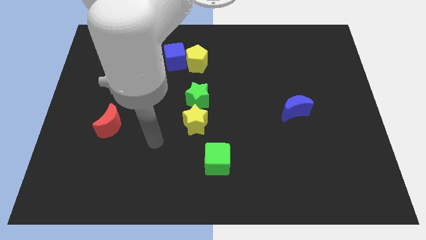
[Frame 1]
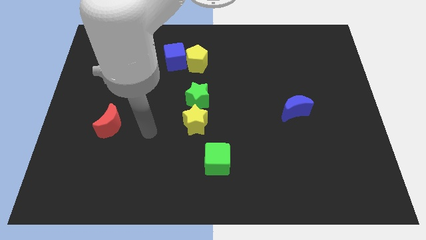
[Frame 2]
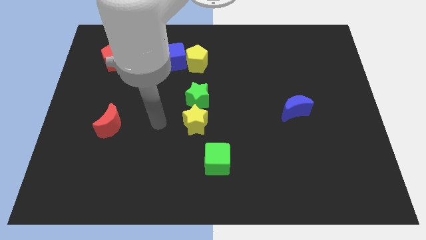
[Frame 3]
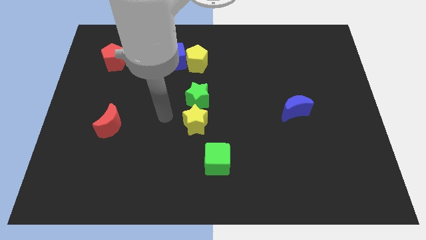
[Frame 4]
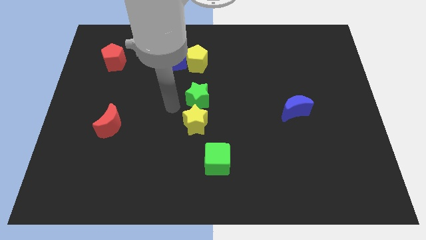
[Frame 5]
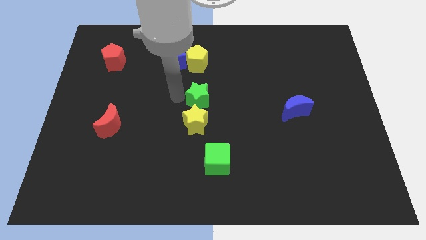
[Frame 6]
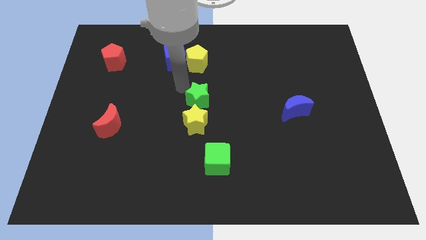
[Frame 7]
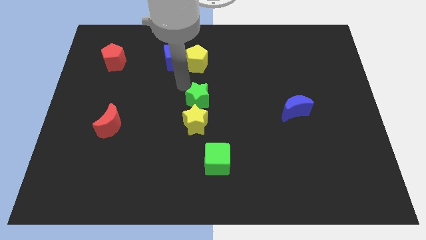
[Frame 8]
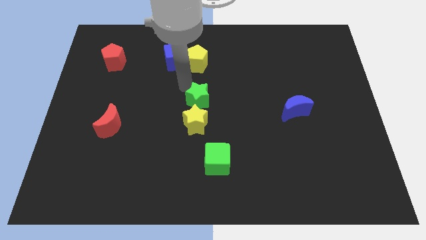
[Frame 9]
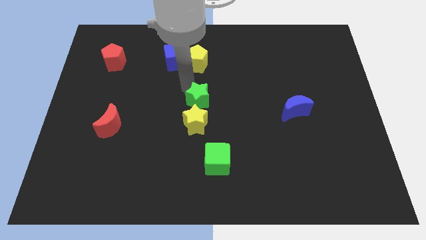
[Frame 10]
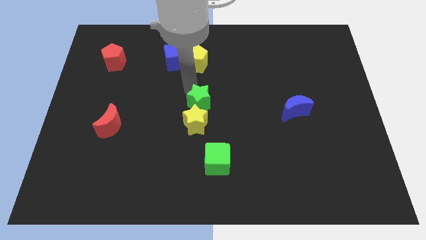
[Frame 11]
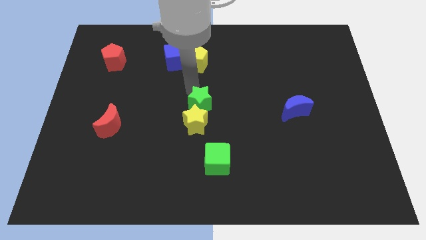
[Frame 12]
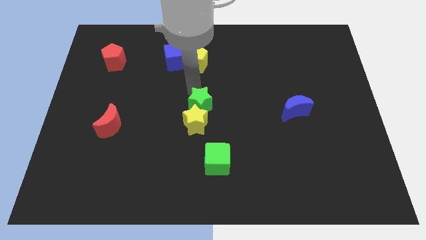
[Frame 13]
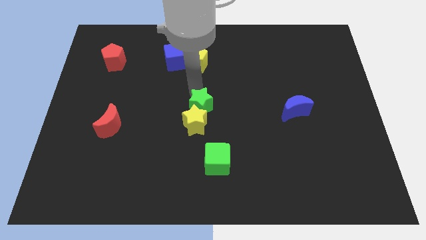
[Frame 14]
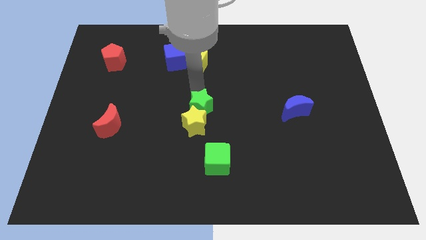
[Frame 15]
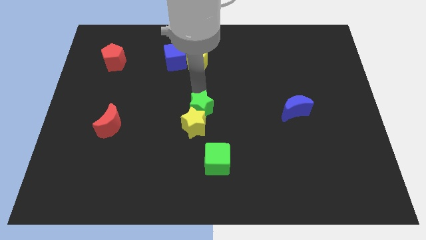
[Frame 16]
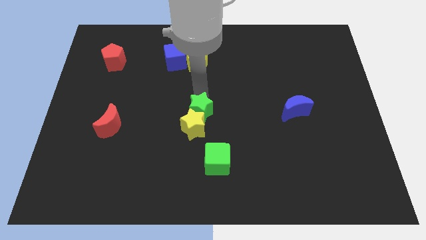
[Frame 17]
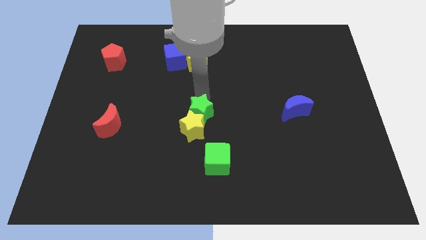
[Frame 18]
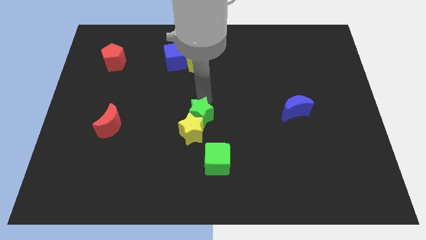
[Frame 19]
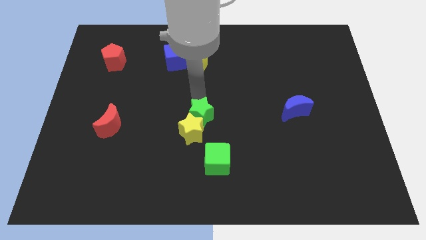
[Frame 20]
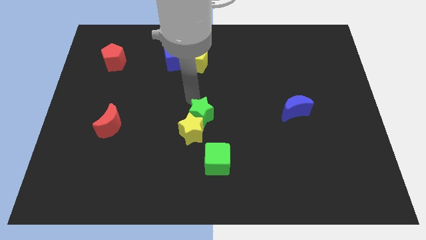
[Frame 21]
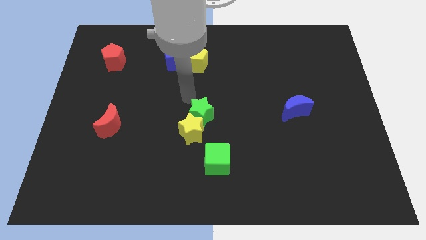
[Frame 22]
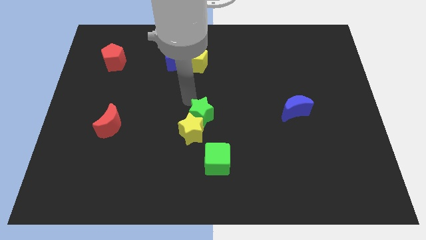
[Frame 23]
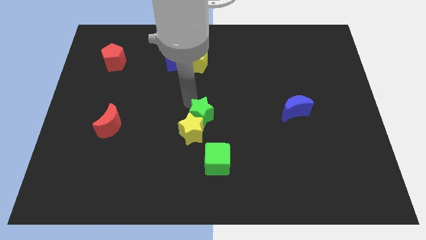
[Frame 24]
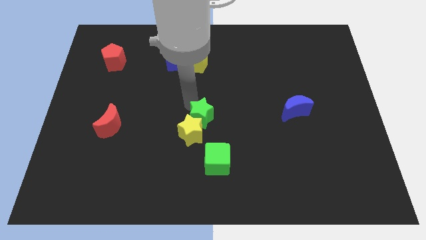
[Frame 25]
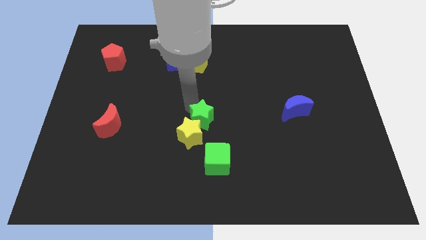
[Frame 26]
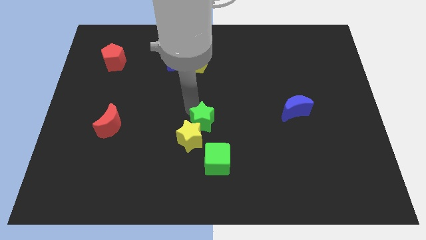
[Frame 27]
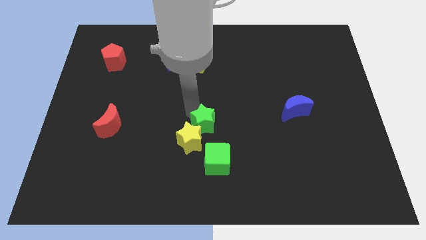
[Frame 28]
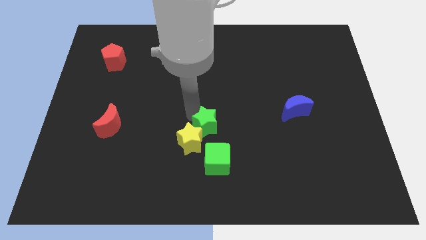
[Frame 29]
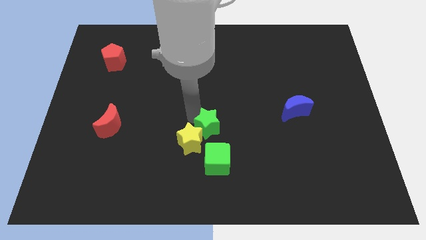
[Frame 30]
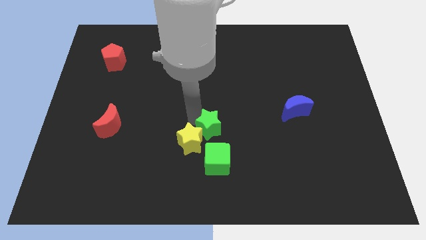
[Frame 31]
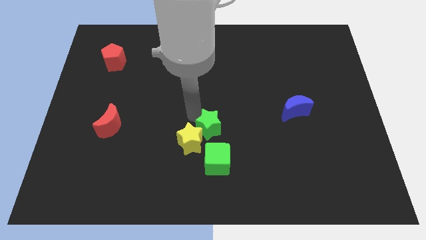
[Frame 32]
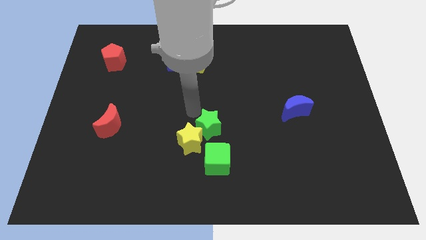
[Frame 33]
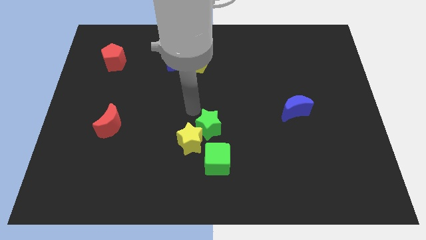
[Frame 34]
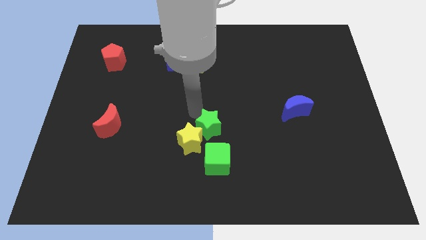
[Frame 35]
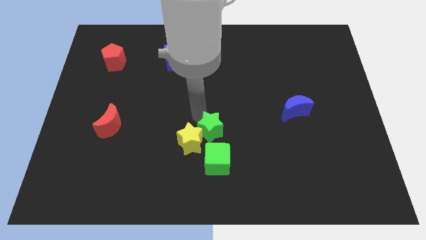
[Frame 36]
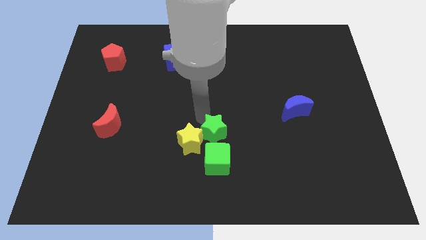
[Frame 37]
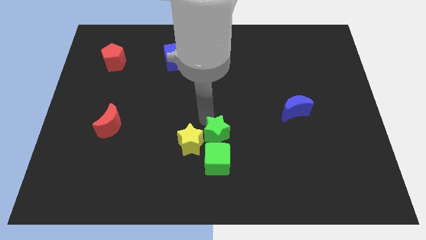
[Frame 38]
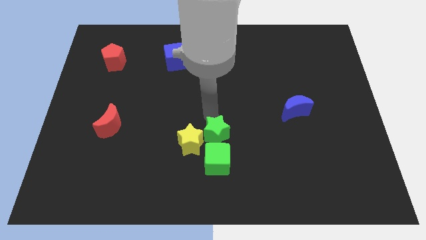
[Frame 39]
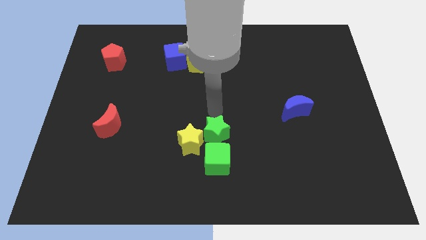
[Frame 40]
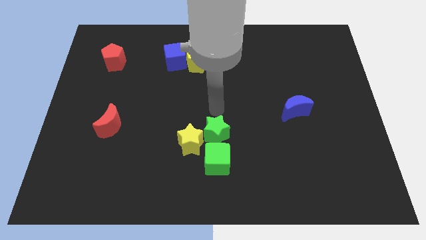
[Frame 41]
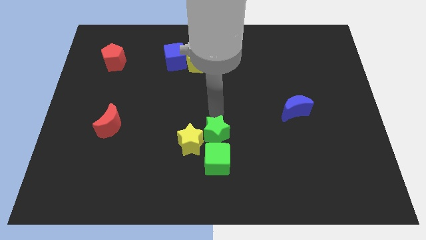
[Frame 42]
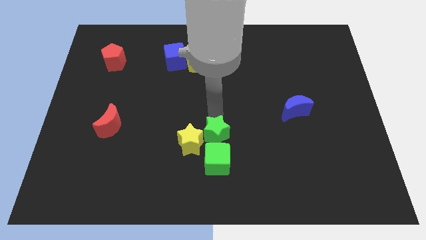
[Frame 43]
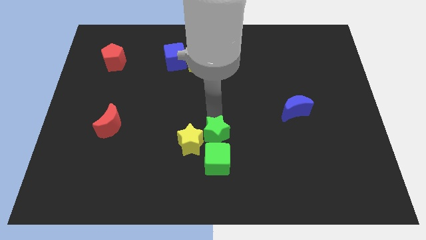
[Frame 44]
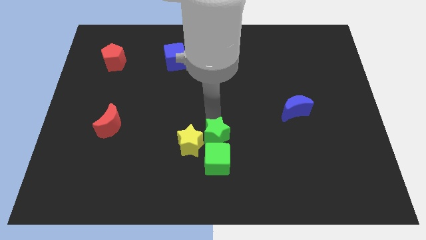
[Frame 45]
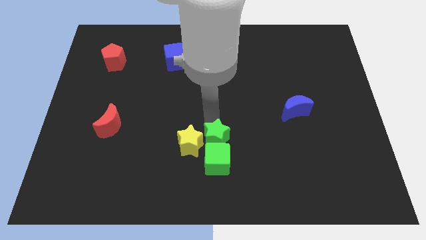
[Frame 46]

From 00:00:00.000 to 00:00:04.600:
put the green star close to the green cube

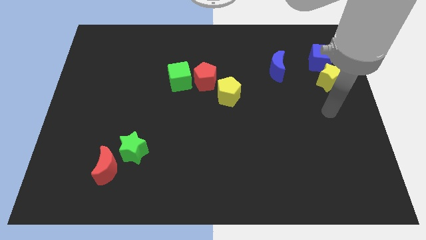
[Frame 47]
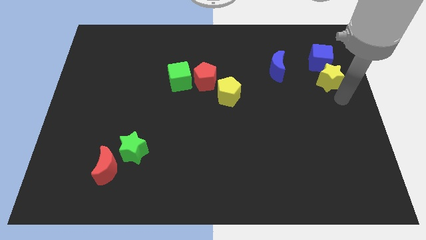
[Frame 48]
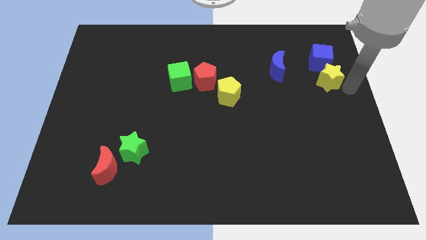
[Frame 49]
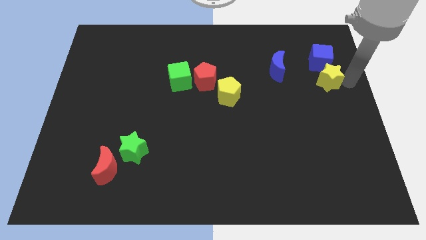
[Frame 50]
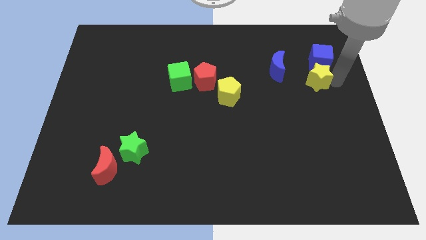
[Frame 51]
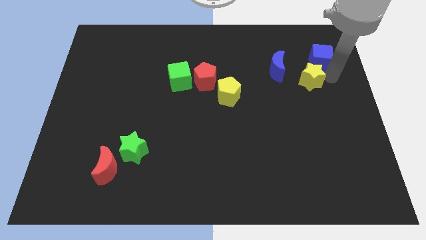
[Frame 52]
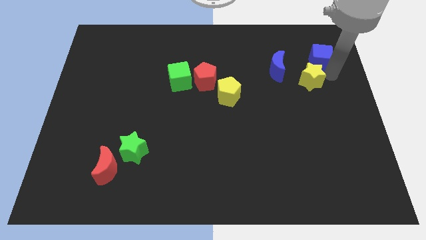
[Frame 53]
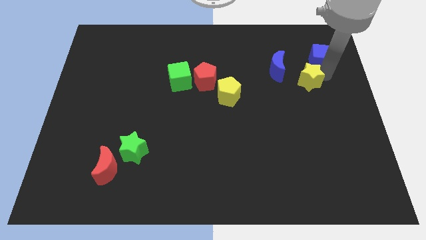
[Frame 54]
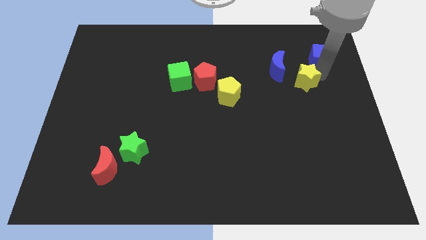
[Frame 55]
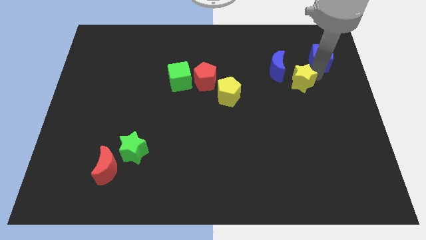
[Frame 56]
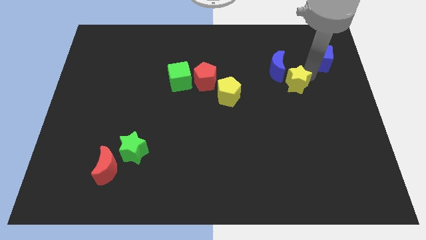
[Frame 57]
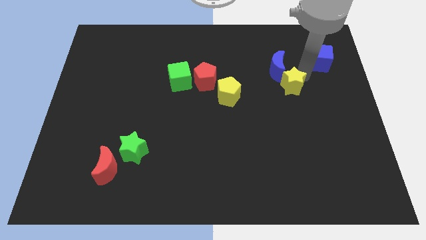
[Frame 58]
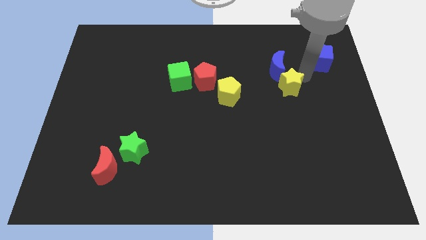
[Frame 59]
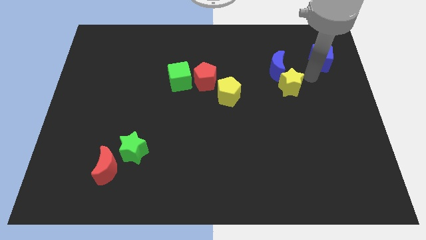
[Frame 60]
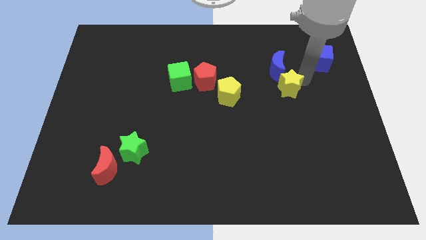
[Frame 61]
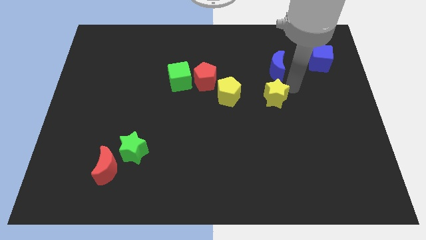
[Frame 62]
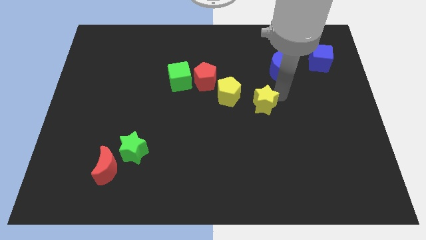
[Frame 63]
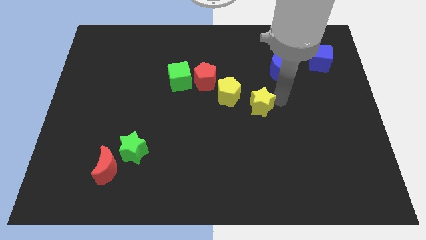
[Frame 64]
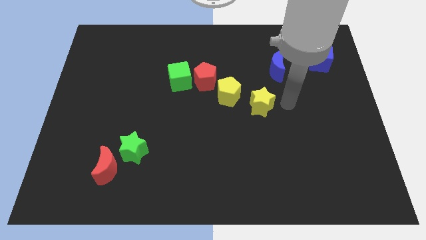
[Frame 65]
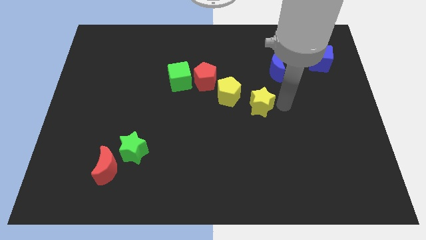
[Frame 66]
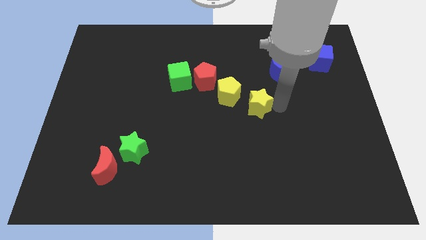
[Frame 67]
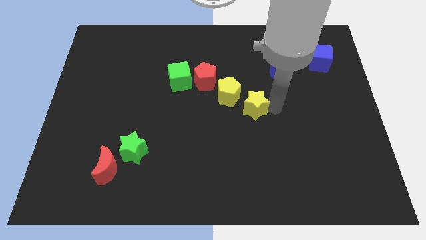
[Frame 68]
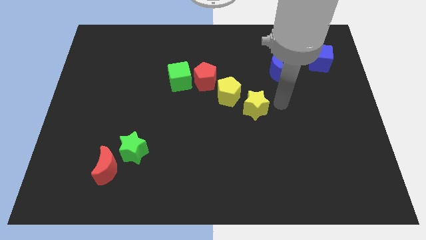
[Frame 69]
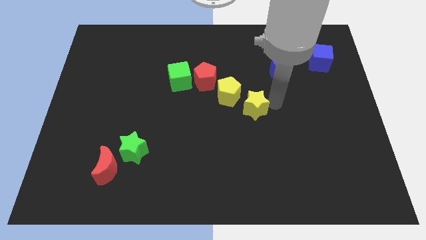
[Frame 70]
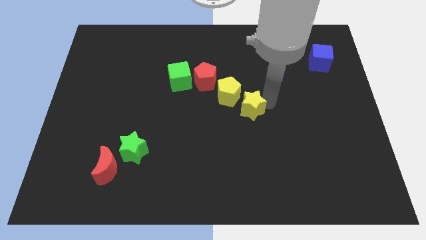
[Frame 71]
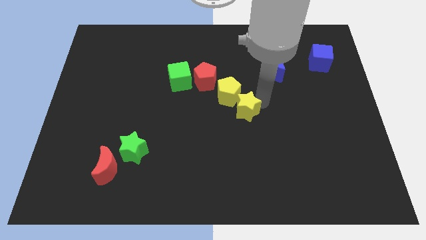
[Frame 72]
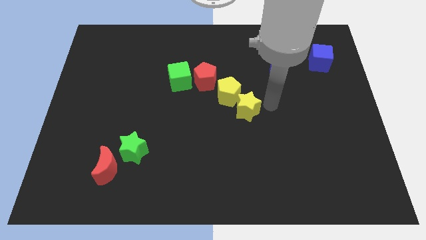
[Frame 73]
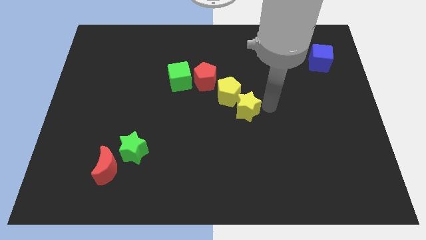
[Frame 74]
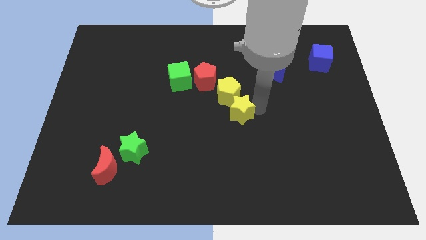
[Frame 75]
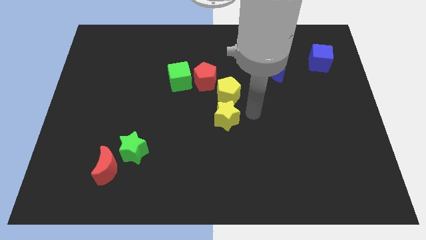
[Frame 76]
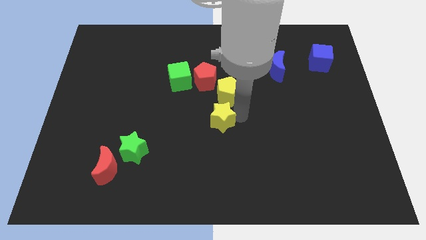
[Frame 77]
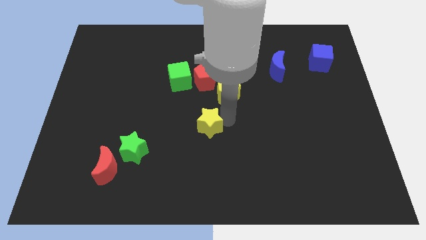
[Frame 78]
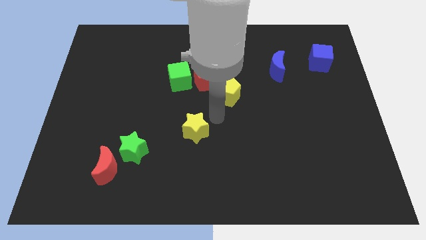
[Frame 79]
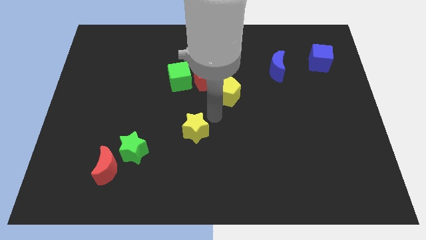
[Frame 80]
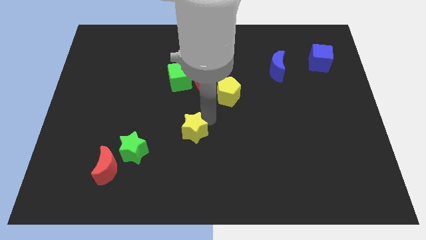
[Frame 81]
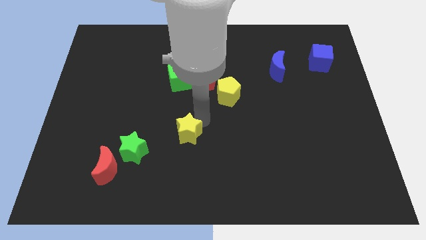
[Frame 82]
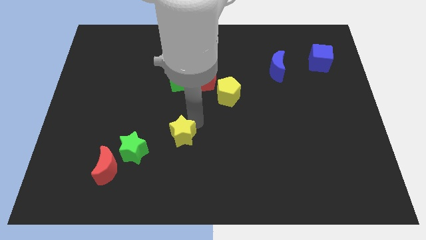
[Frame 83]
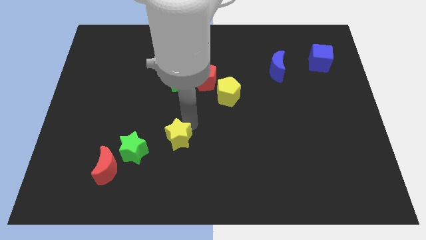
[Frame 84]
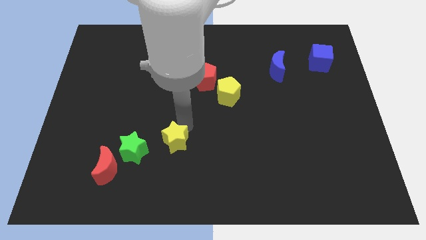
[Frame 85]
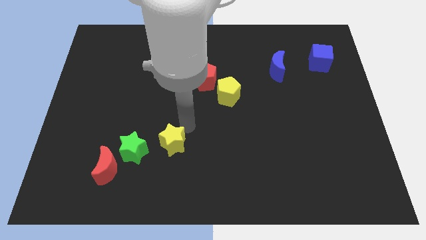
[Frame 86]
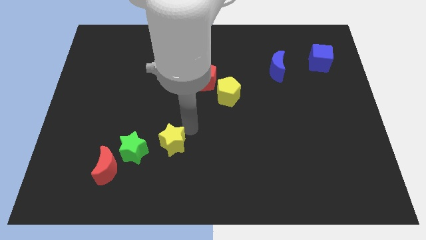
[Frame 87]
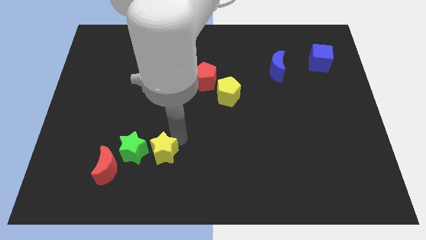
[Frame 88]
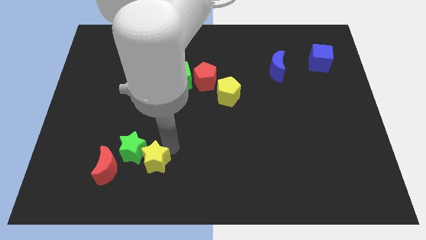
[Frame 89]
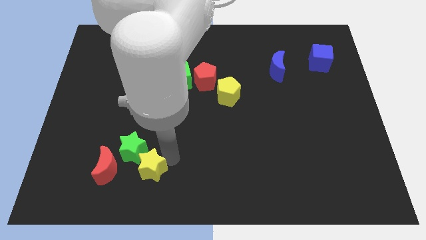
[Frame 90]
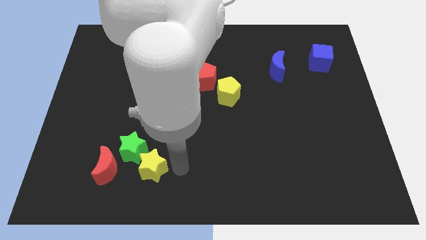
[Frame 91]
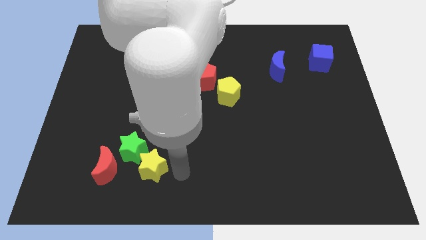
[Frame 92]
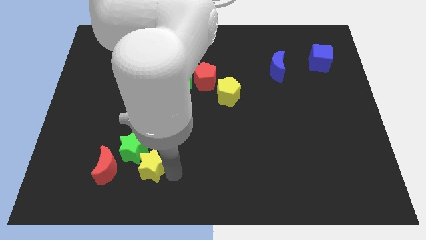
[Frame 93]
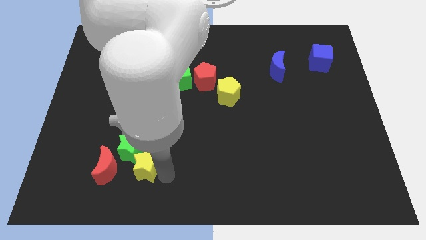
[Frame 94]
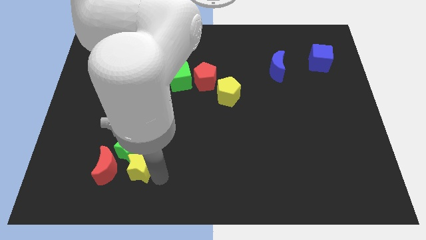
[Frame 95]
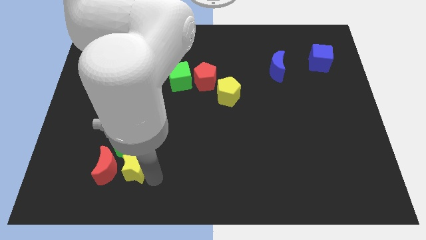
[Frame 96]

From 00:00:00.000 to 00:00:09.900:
put the yellow star next to the red moon
